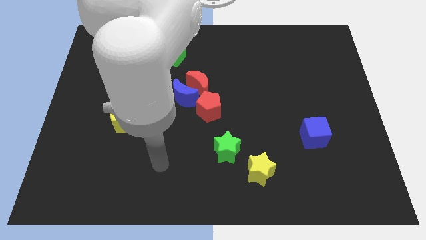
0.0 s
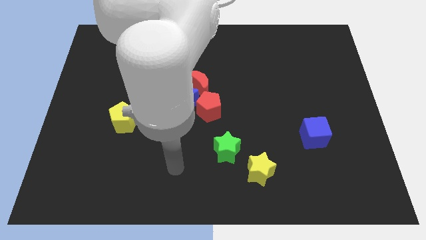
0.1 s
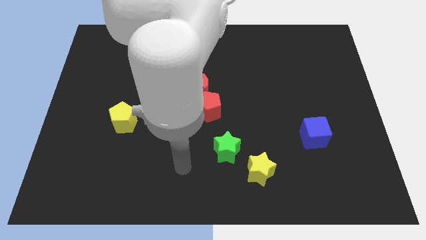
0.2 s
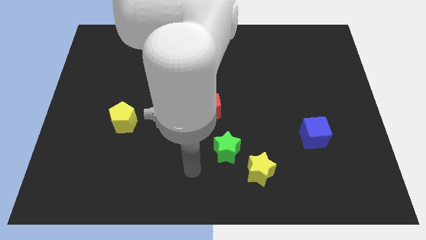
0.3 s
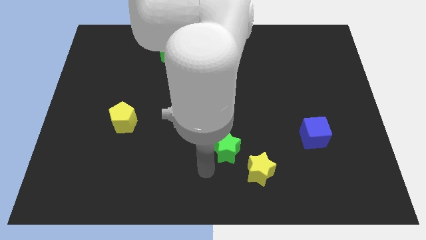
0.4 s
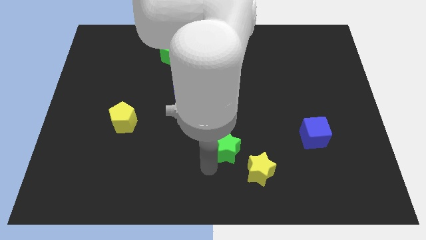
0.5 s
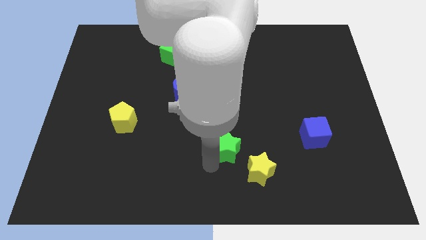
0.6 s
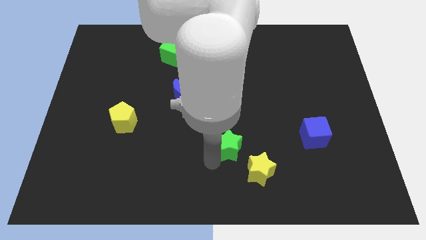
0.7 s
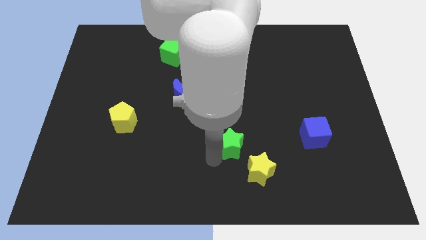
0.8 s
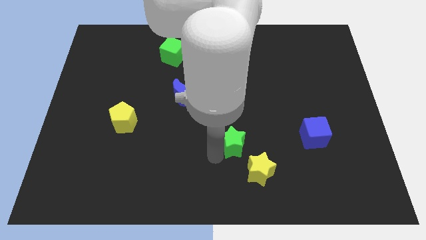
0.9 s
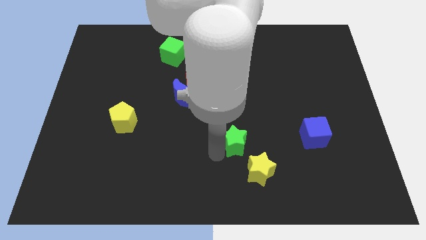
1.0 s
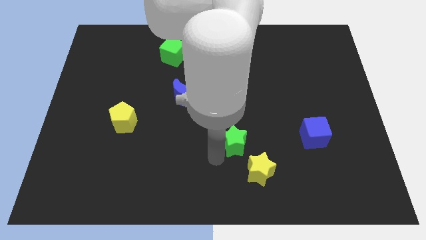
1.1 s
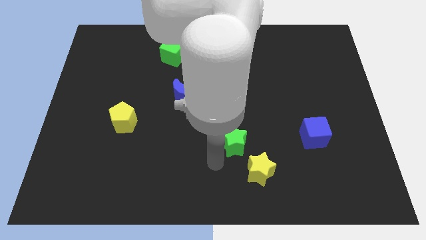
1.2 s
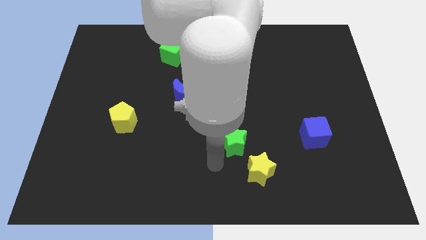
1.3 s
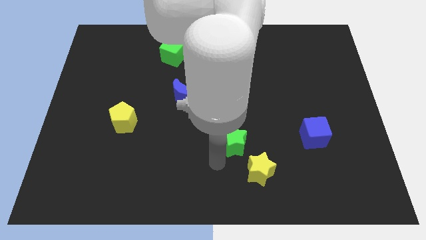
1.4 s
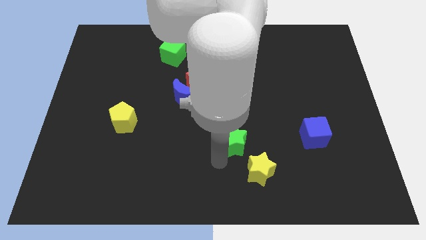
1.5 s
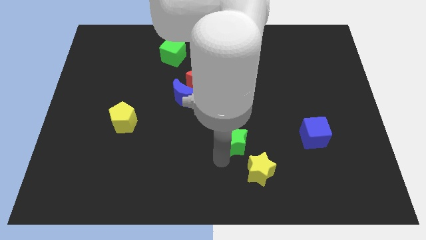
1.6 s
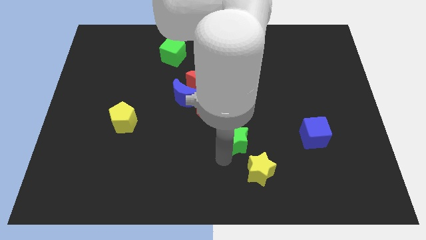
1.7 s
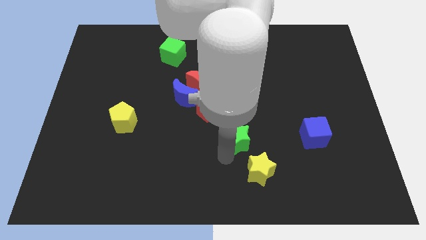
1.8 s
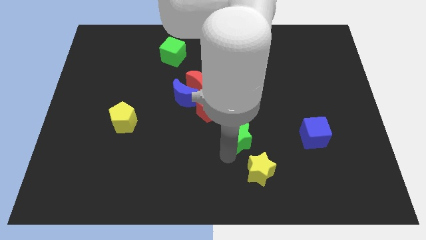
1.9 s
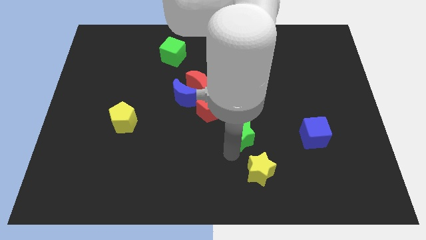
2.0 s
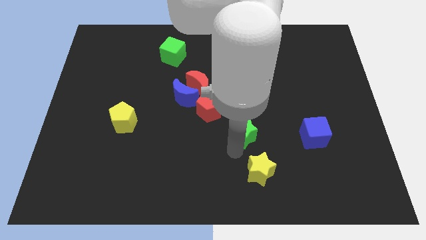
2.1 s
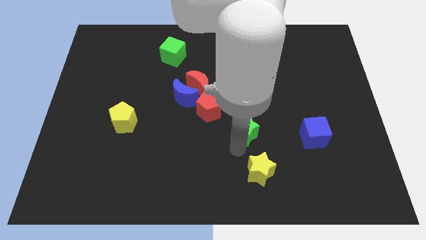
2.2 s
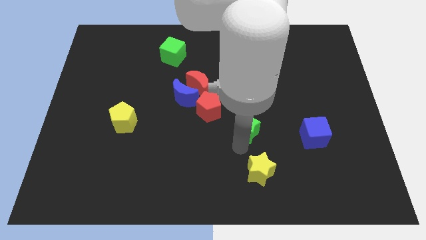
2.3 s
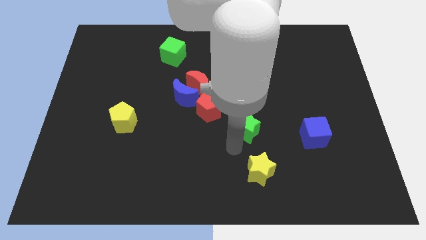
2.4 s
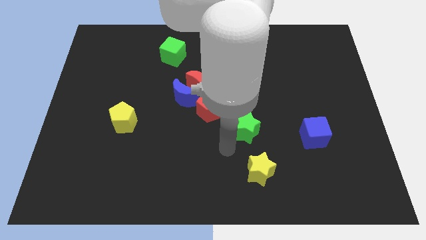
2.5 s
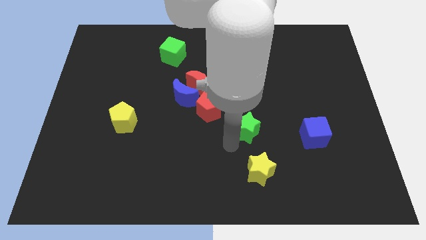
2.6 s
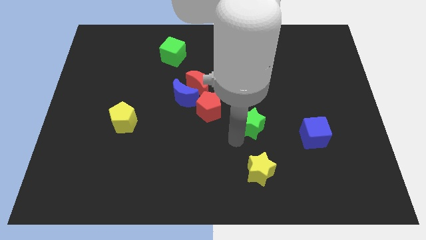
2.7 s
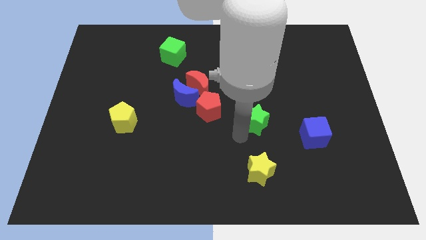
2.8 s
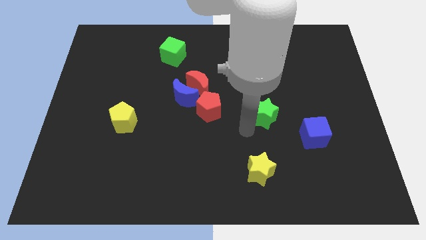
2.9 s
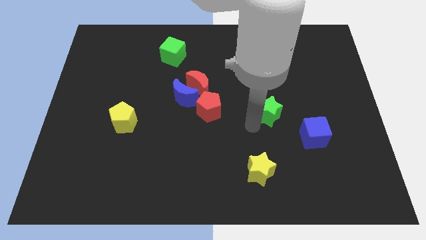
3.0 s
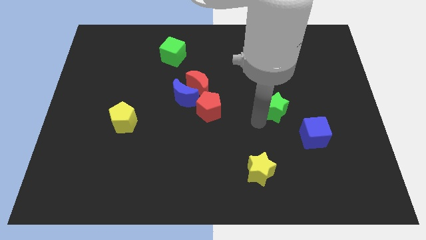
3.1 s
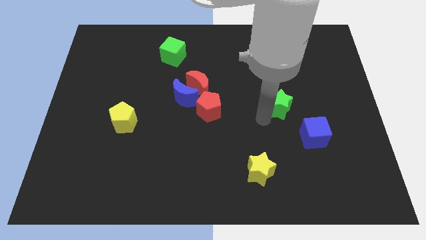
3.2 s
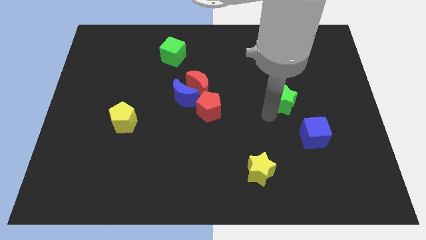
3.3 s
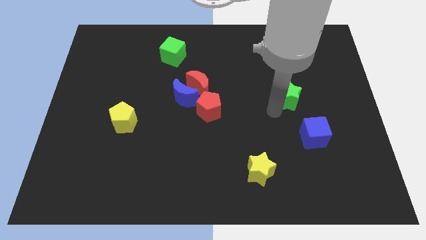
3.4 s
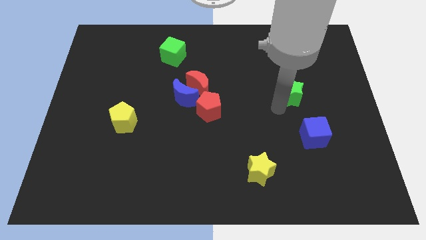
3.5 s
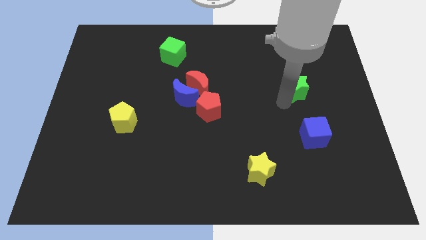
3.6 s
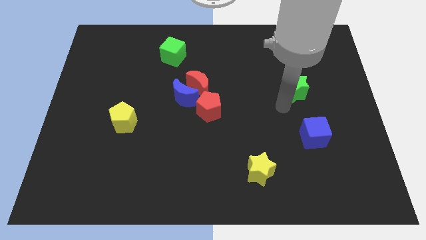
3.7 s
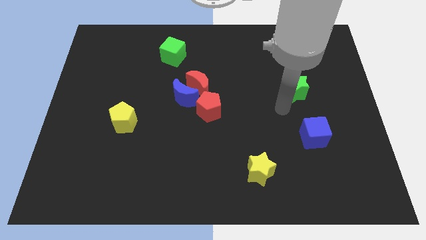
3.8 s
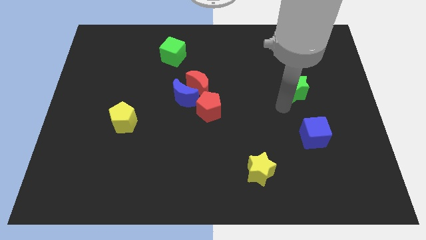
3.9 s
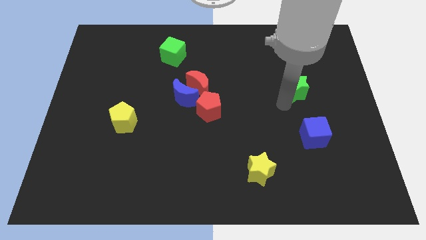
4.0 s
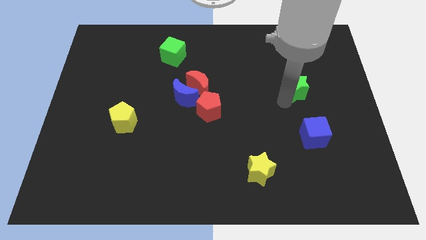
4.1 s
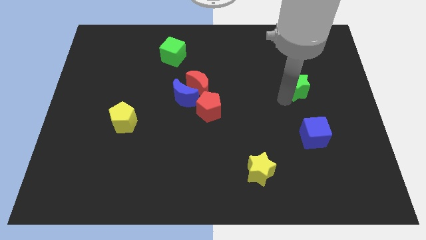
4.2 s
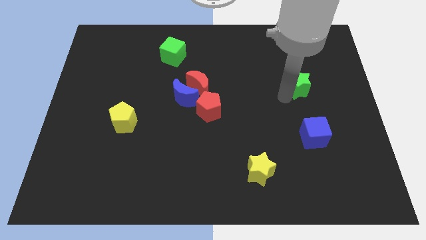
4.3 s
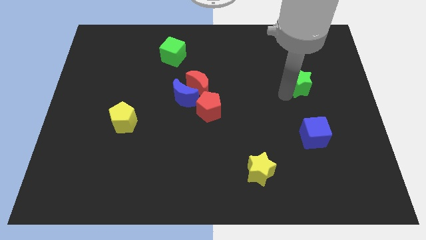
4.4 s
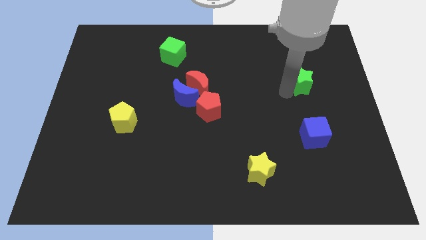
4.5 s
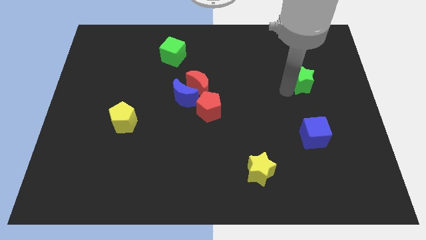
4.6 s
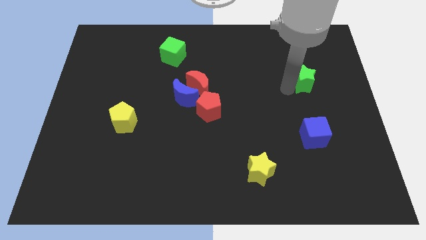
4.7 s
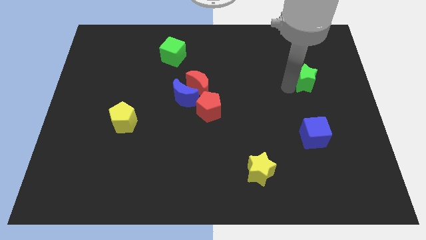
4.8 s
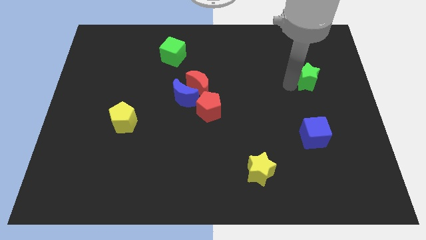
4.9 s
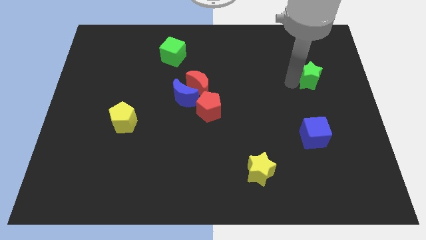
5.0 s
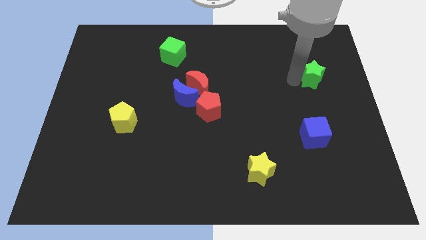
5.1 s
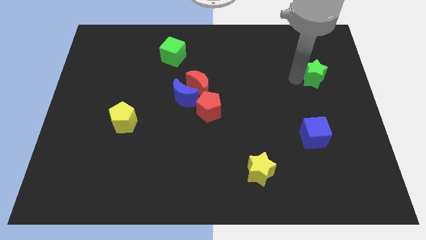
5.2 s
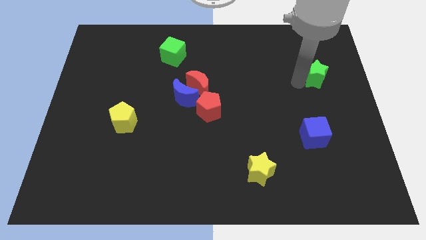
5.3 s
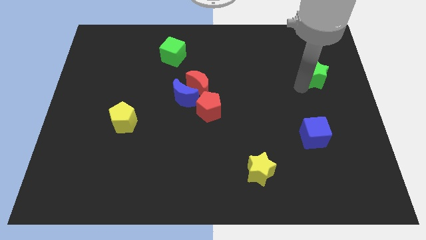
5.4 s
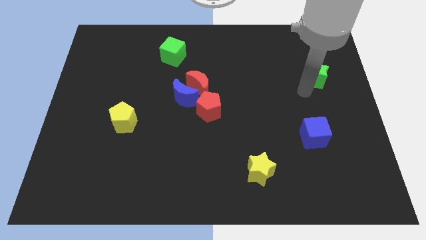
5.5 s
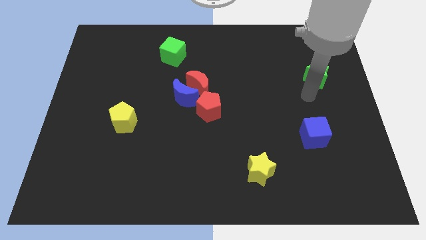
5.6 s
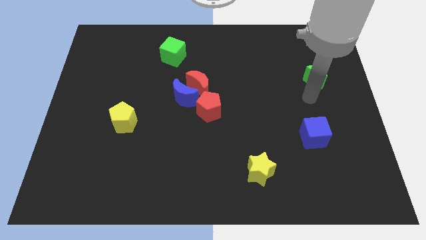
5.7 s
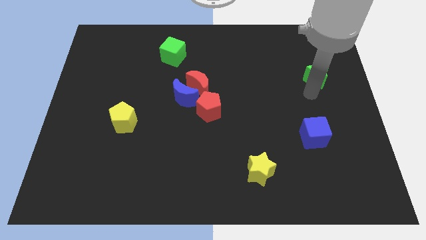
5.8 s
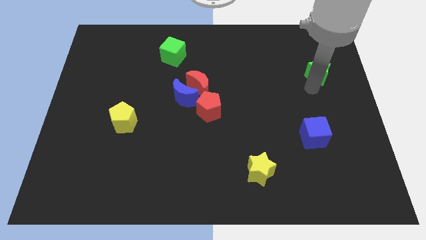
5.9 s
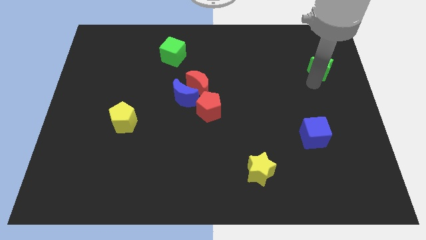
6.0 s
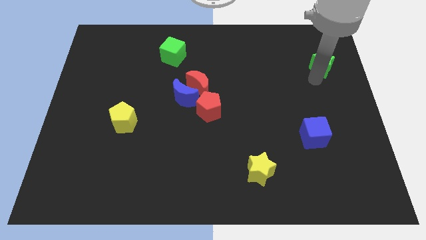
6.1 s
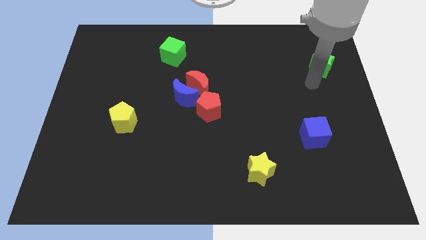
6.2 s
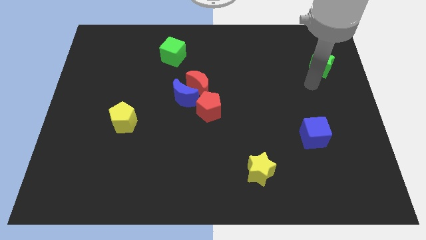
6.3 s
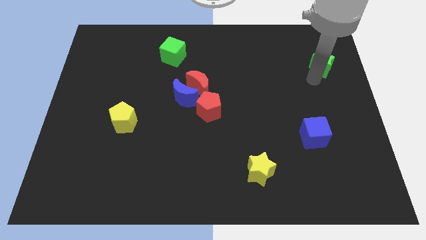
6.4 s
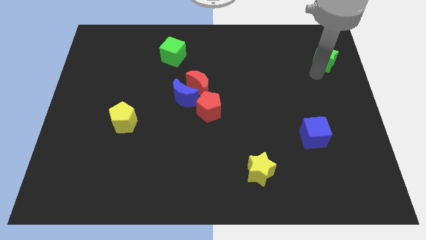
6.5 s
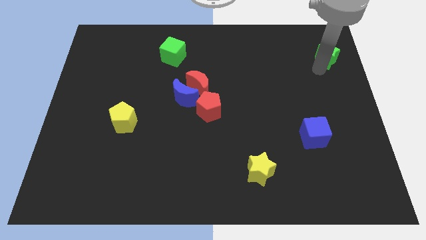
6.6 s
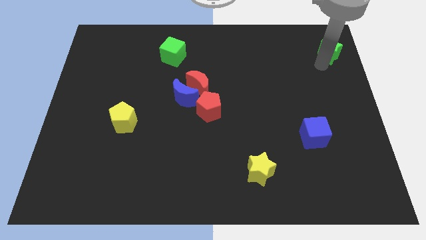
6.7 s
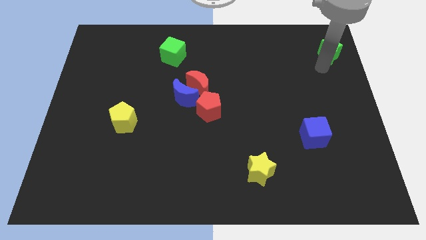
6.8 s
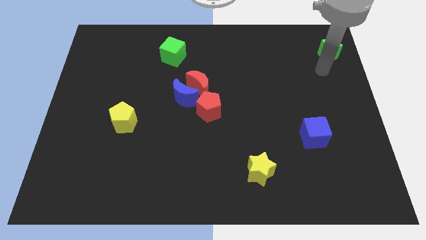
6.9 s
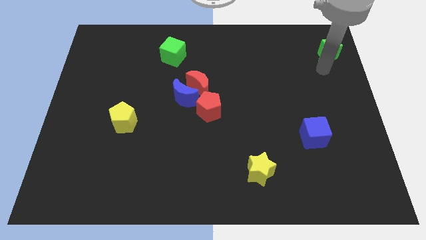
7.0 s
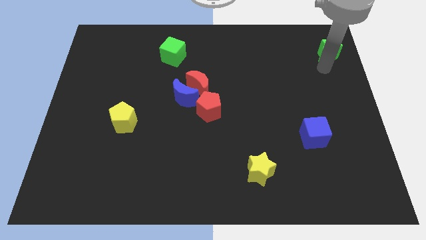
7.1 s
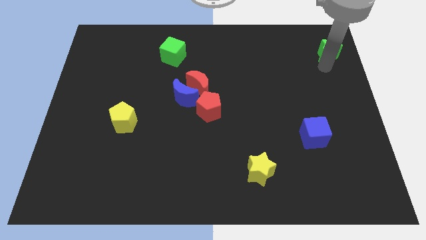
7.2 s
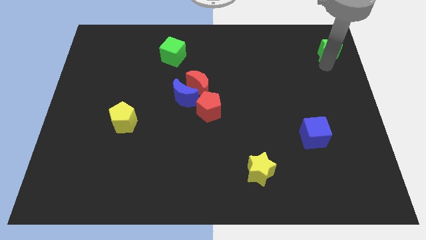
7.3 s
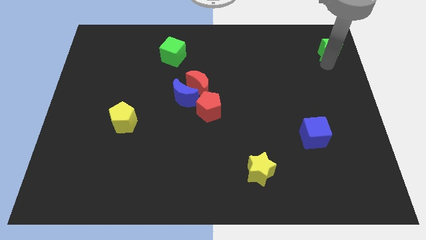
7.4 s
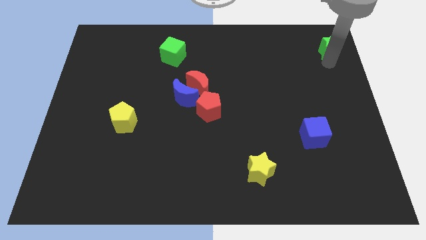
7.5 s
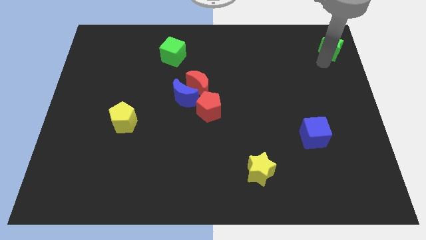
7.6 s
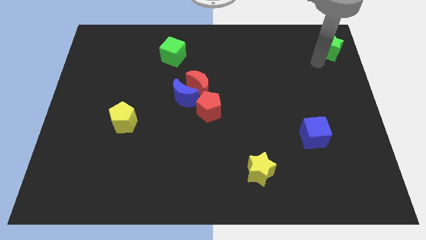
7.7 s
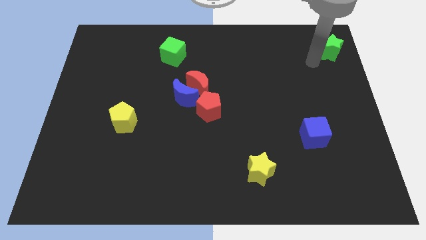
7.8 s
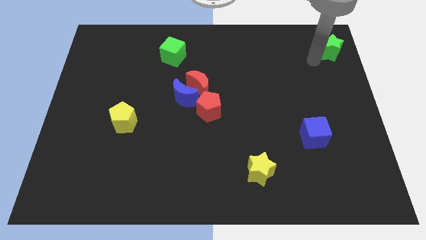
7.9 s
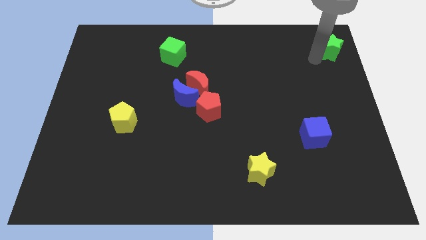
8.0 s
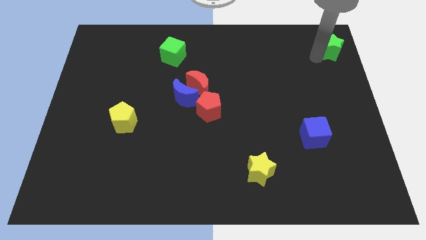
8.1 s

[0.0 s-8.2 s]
put the green star to the top right corner
